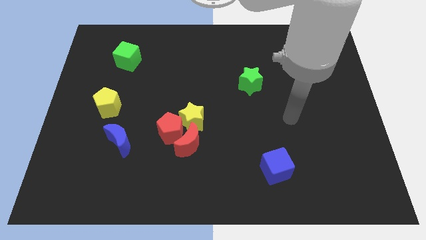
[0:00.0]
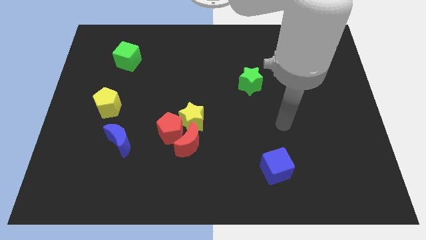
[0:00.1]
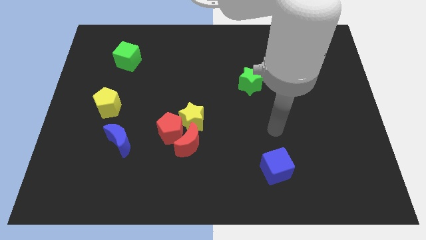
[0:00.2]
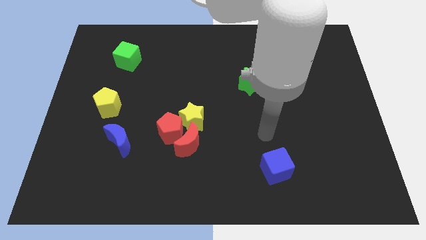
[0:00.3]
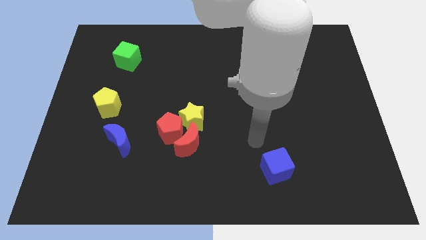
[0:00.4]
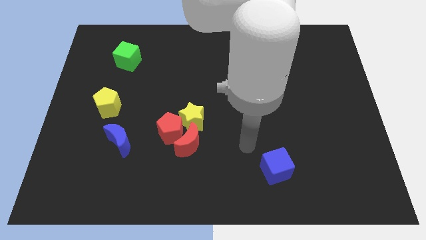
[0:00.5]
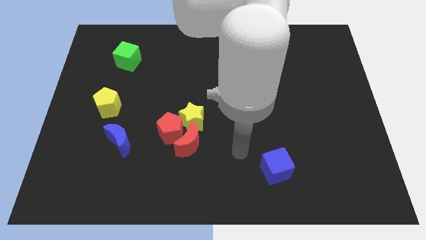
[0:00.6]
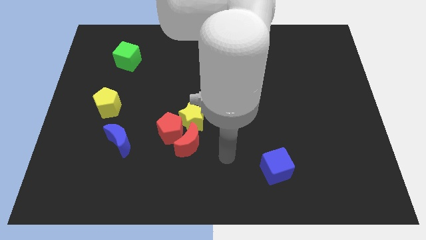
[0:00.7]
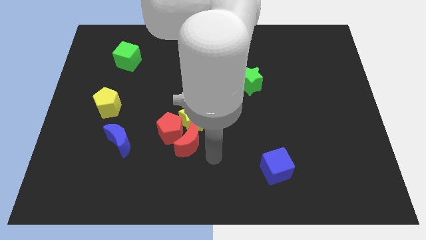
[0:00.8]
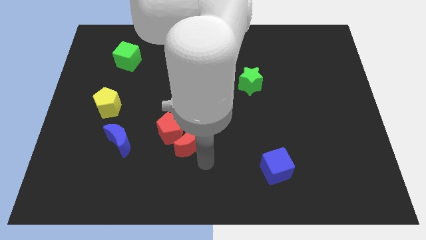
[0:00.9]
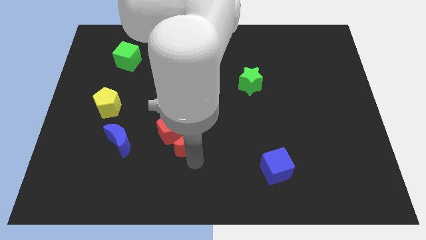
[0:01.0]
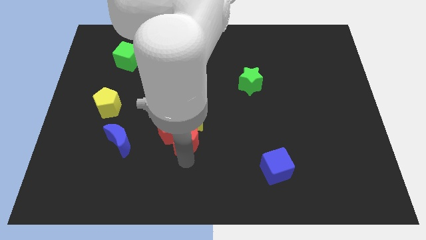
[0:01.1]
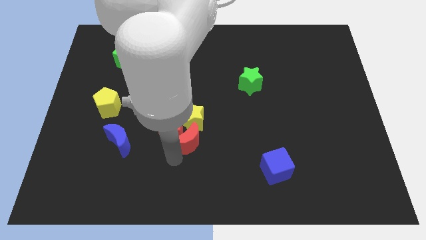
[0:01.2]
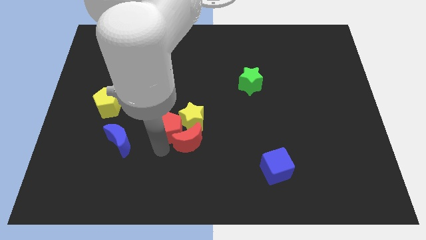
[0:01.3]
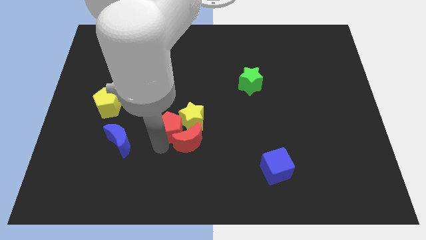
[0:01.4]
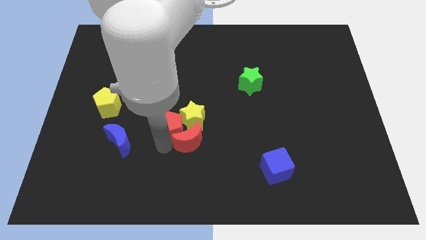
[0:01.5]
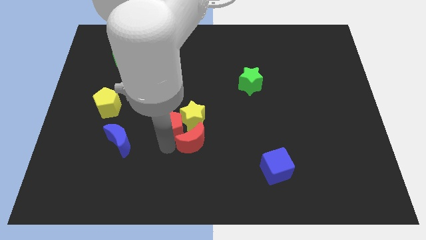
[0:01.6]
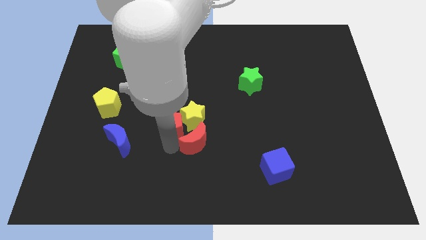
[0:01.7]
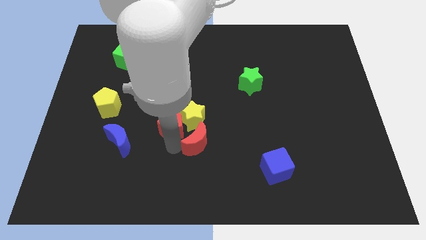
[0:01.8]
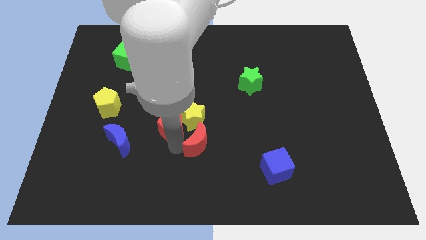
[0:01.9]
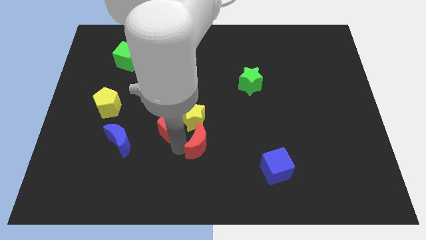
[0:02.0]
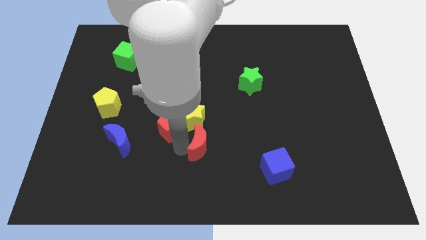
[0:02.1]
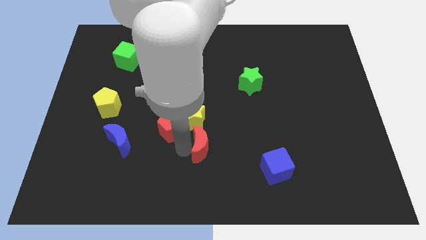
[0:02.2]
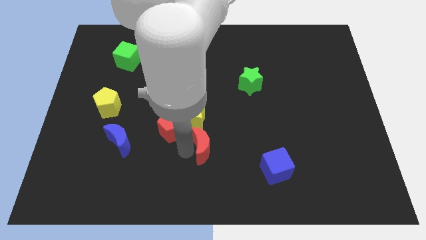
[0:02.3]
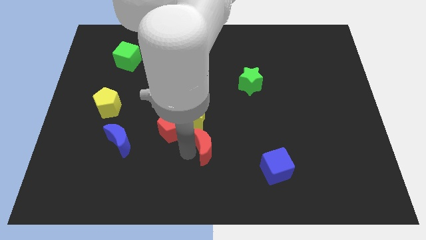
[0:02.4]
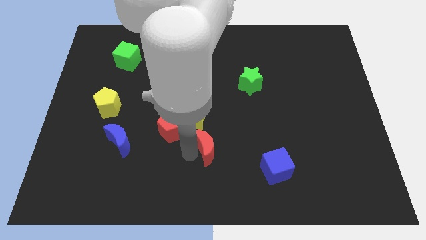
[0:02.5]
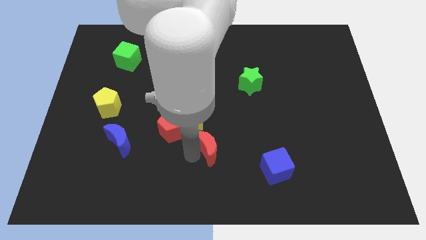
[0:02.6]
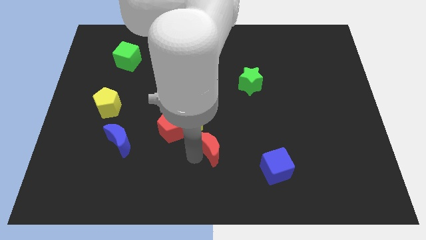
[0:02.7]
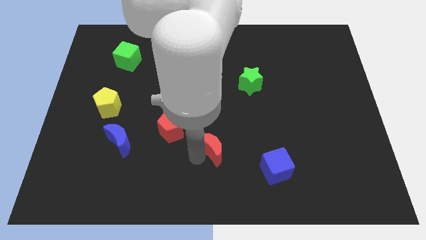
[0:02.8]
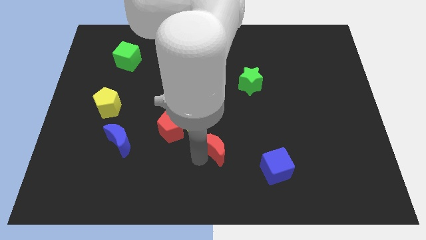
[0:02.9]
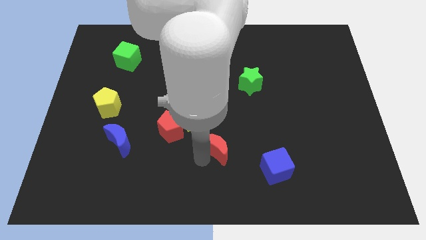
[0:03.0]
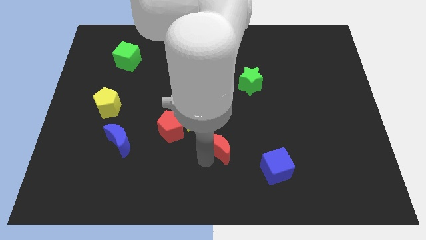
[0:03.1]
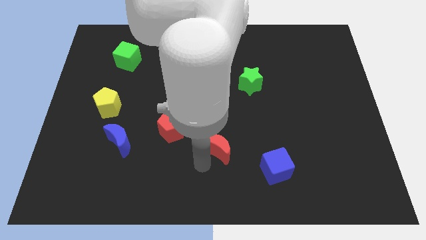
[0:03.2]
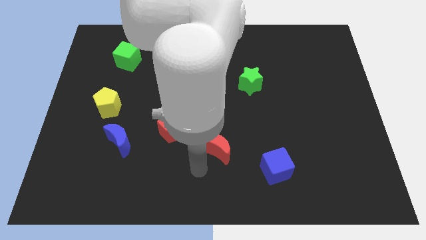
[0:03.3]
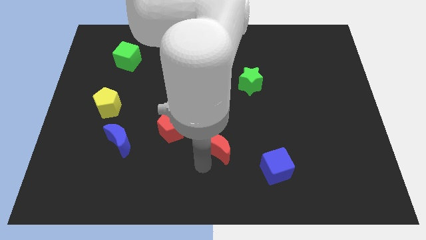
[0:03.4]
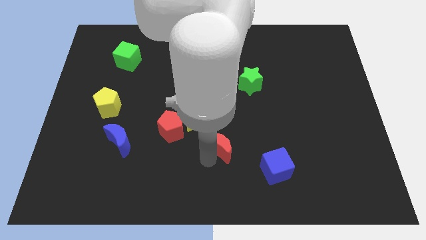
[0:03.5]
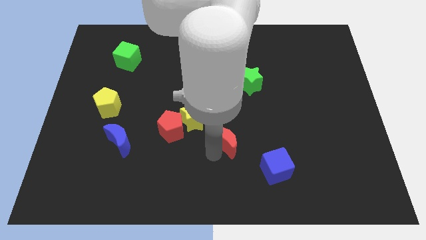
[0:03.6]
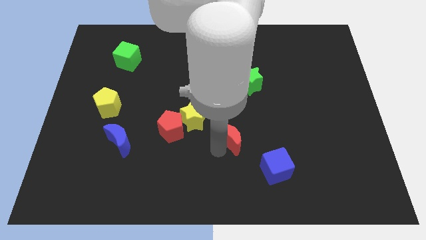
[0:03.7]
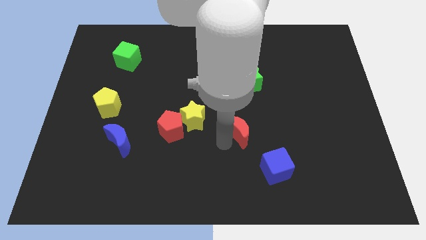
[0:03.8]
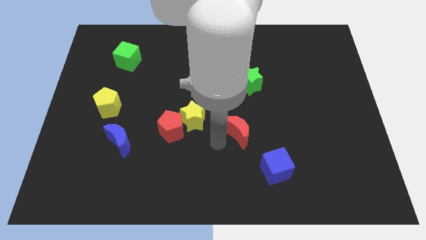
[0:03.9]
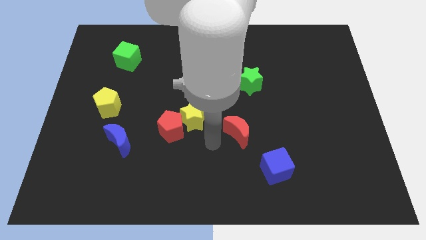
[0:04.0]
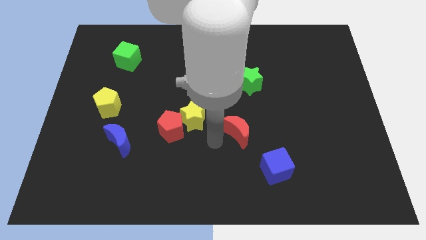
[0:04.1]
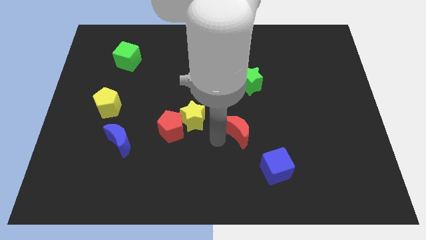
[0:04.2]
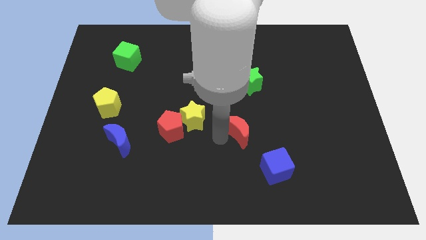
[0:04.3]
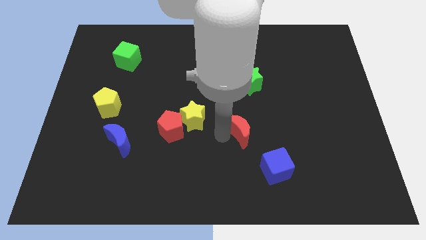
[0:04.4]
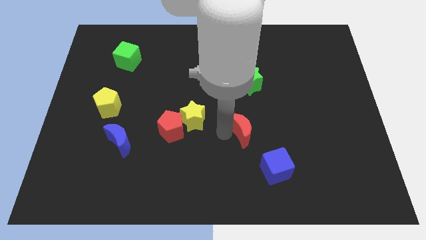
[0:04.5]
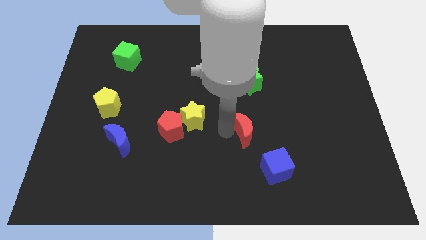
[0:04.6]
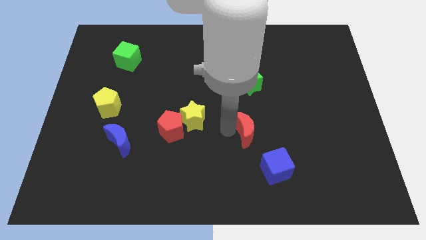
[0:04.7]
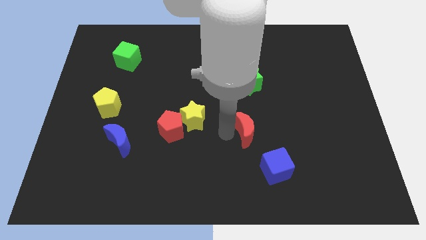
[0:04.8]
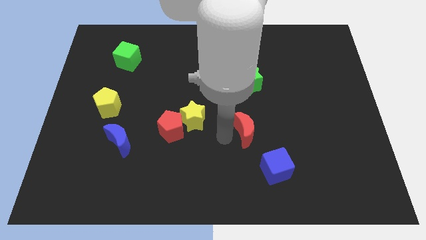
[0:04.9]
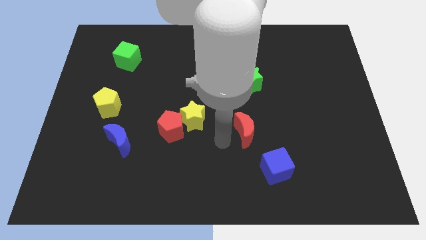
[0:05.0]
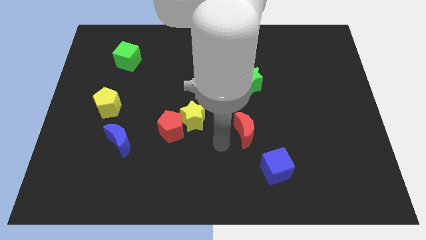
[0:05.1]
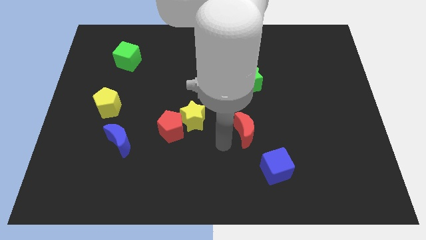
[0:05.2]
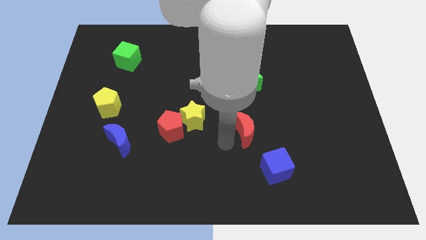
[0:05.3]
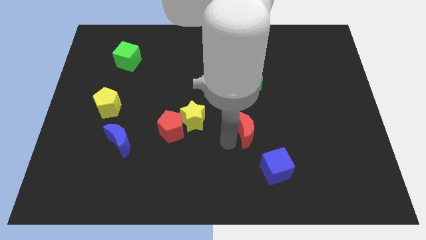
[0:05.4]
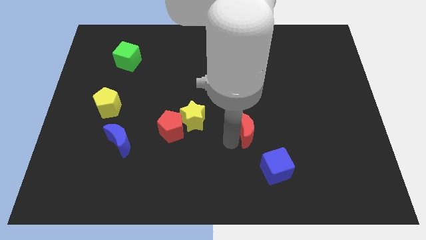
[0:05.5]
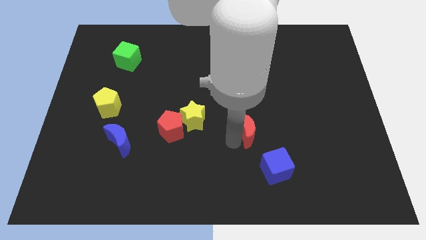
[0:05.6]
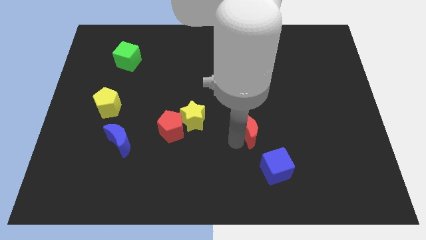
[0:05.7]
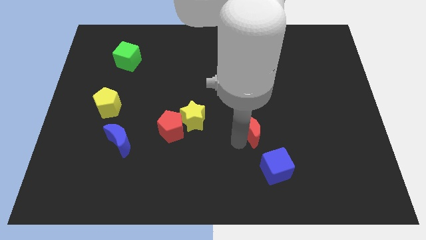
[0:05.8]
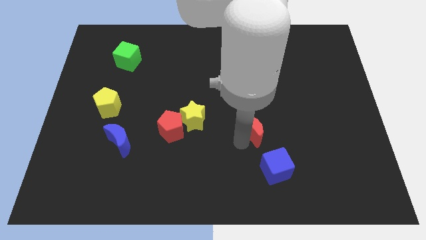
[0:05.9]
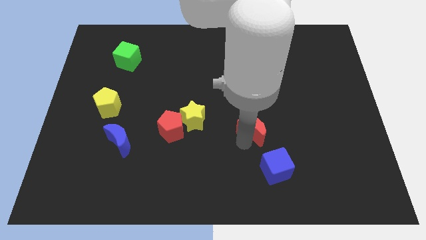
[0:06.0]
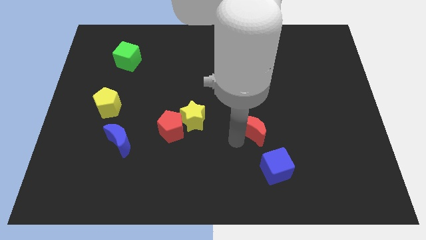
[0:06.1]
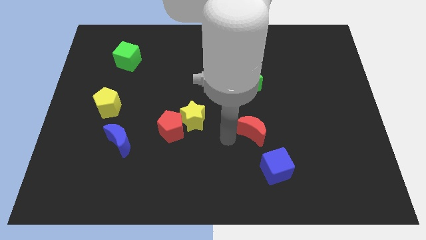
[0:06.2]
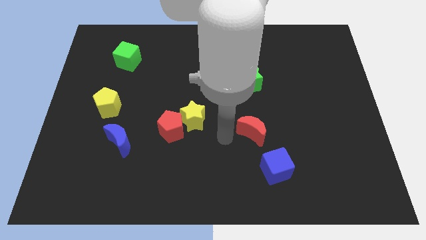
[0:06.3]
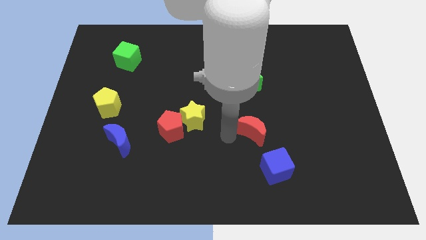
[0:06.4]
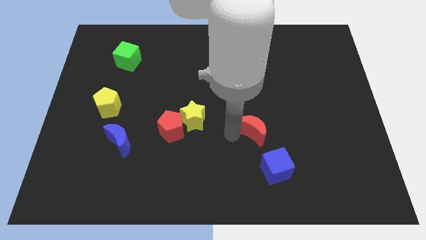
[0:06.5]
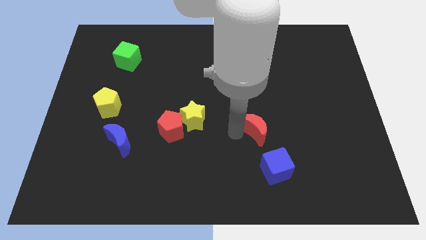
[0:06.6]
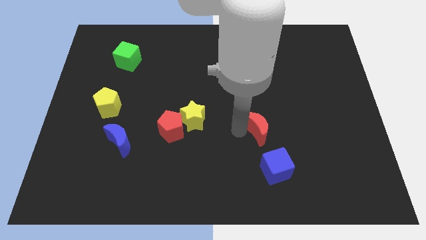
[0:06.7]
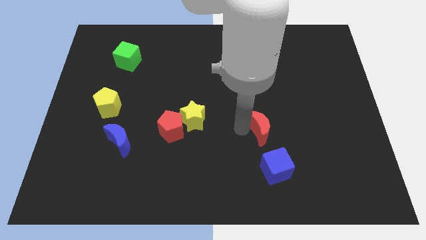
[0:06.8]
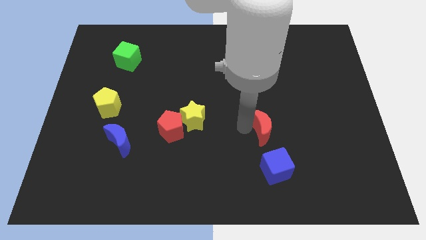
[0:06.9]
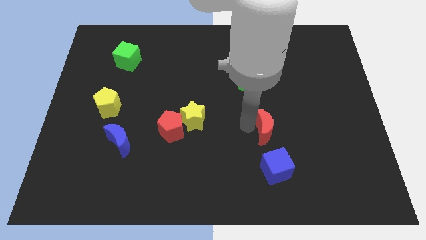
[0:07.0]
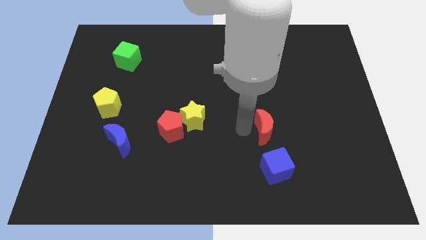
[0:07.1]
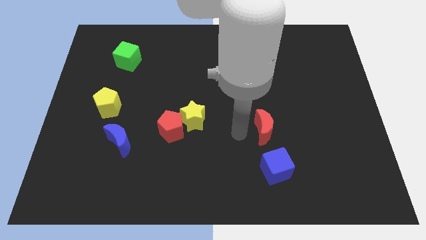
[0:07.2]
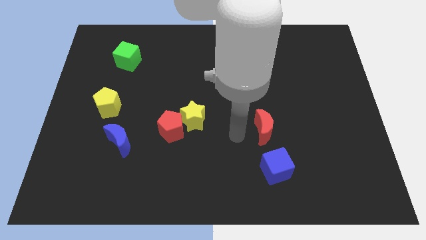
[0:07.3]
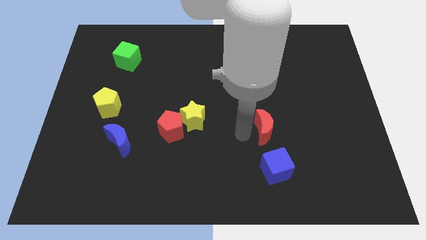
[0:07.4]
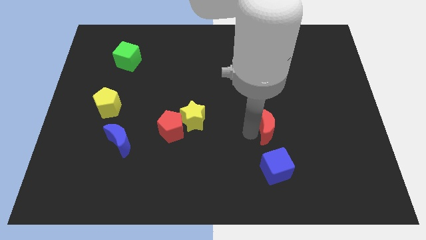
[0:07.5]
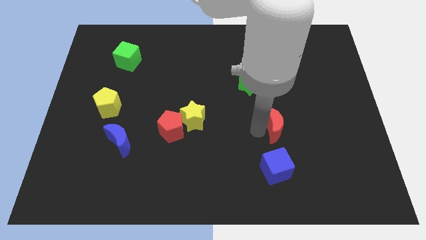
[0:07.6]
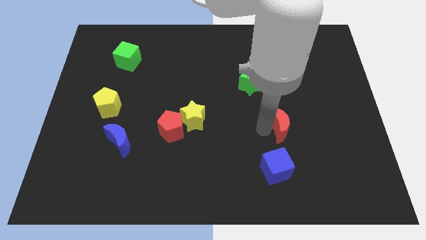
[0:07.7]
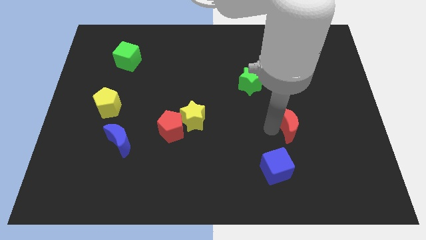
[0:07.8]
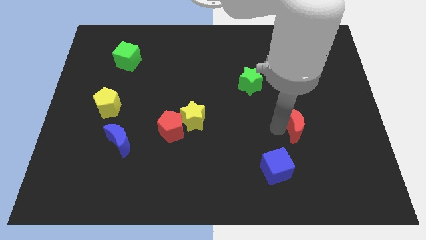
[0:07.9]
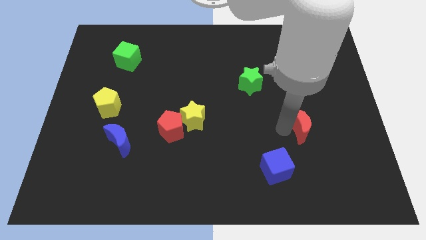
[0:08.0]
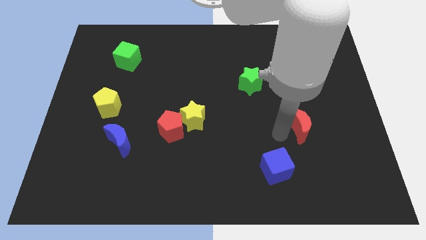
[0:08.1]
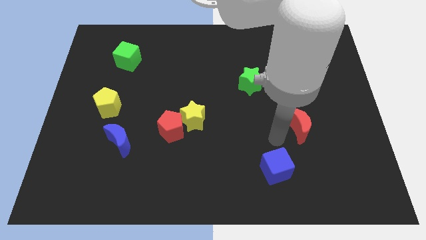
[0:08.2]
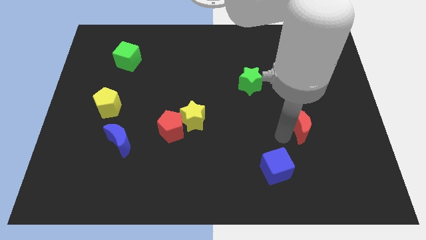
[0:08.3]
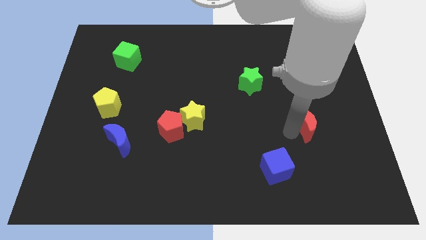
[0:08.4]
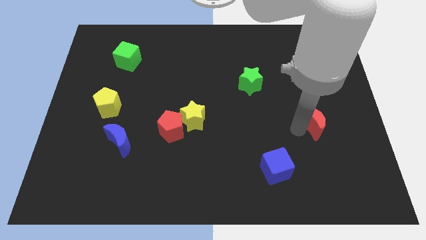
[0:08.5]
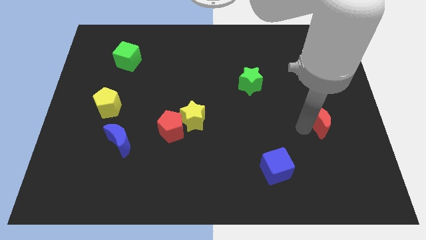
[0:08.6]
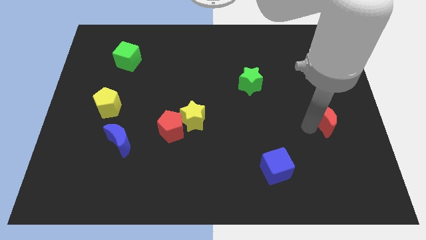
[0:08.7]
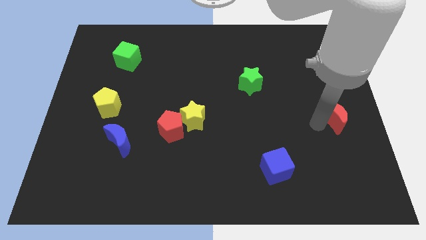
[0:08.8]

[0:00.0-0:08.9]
put the red moon to the center right
